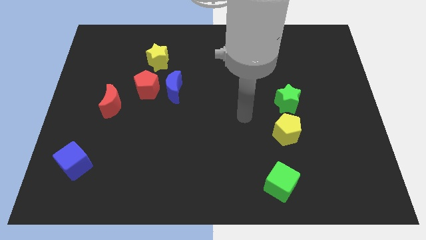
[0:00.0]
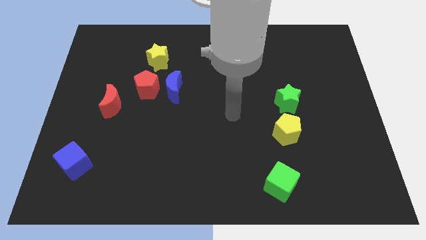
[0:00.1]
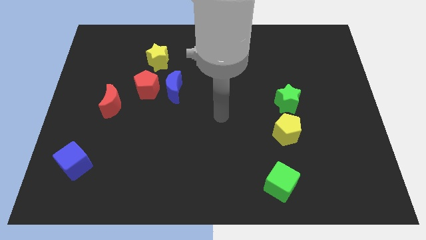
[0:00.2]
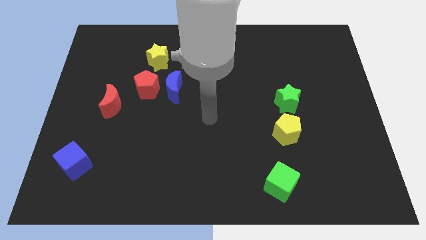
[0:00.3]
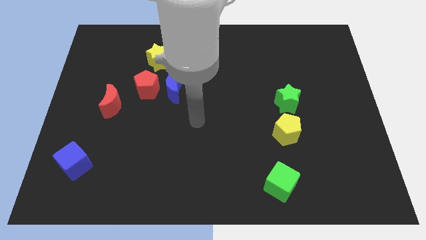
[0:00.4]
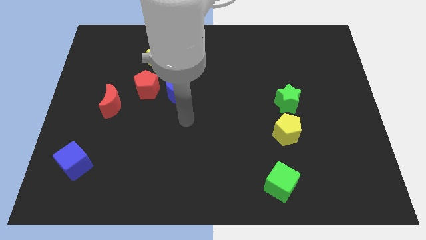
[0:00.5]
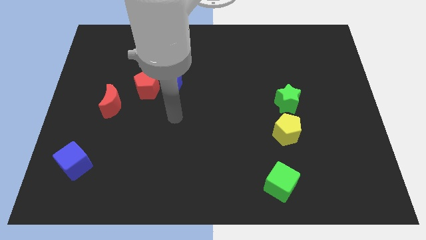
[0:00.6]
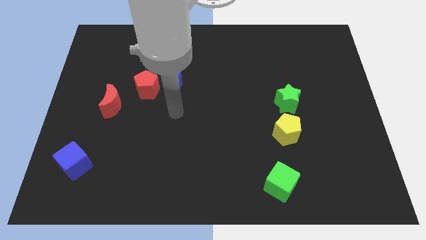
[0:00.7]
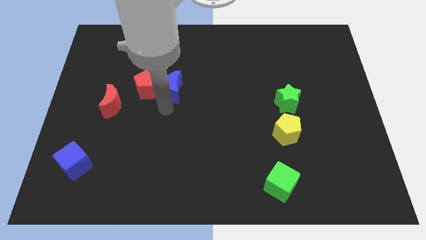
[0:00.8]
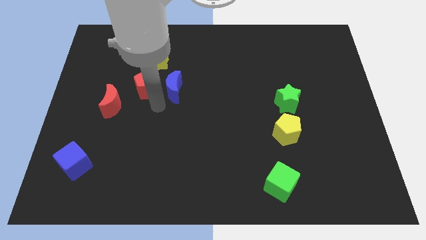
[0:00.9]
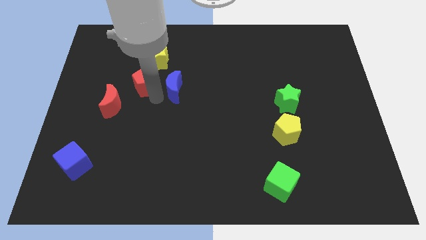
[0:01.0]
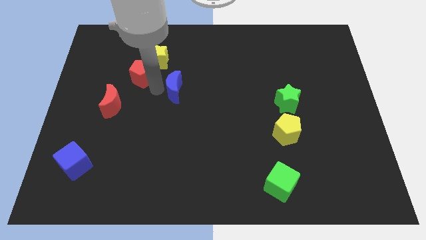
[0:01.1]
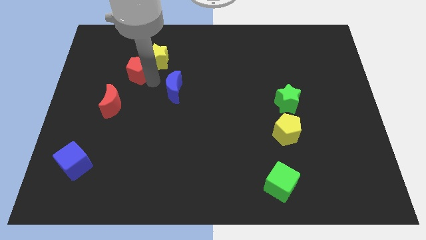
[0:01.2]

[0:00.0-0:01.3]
pull the blue moon apart from the red pentagon

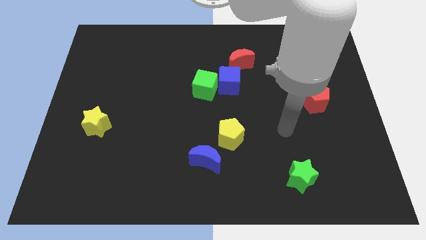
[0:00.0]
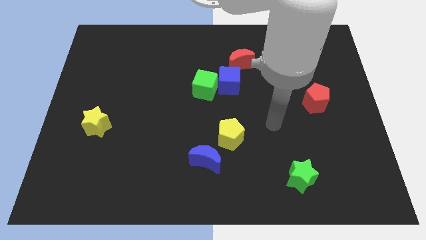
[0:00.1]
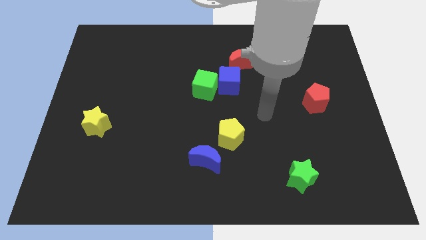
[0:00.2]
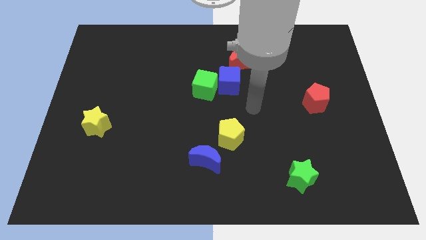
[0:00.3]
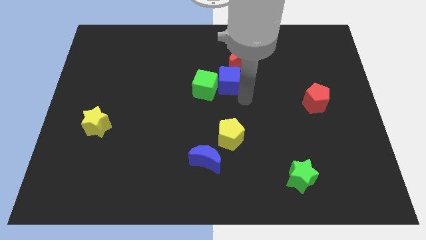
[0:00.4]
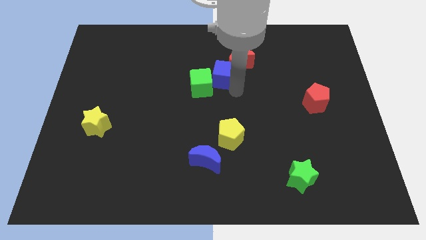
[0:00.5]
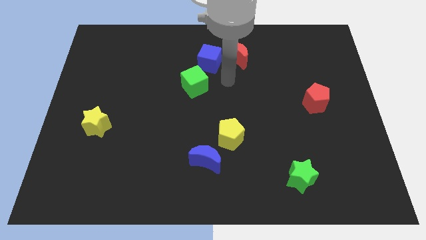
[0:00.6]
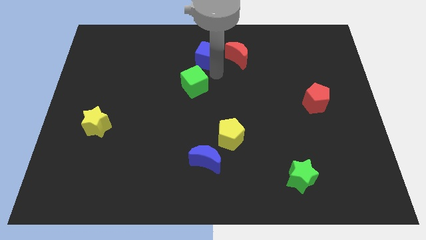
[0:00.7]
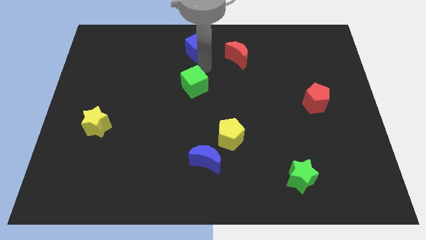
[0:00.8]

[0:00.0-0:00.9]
pull the green cube apart from the blue cube

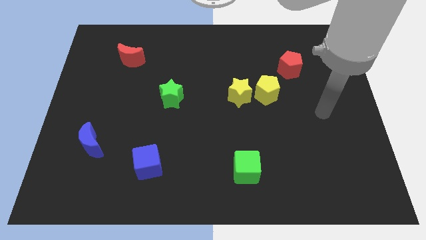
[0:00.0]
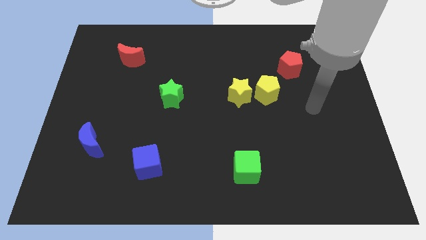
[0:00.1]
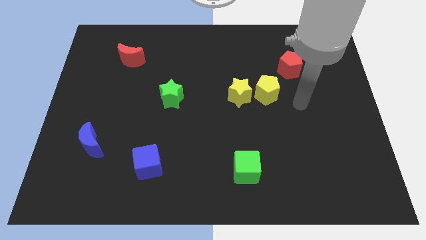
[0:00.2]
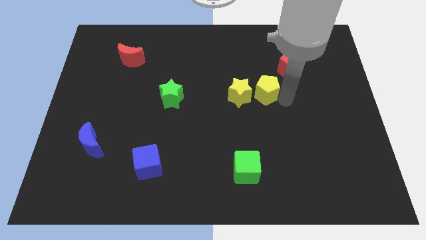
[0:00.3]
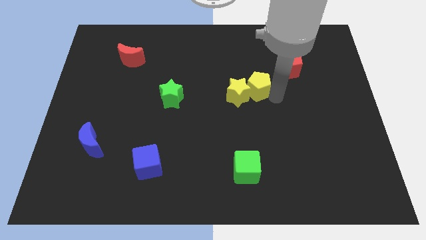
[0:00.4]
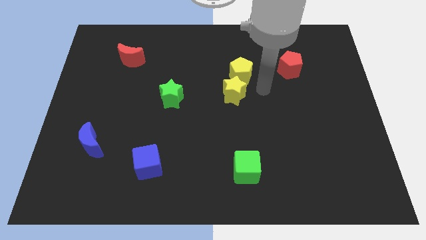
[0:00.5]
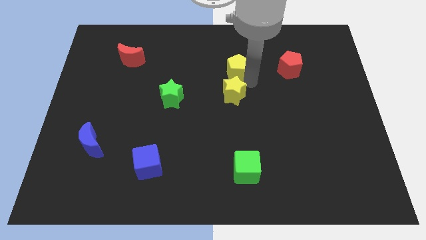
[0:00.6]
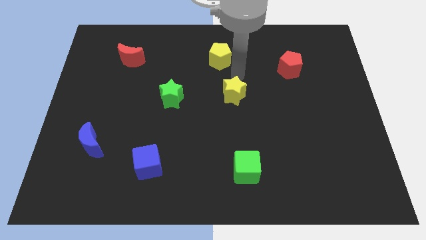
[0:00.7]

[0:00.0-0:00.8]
move the yellow star away from the yellow pentagon

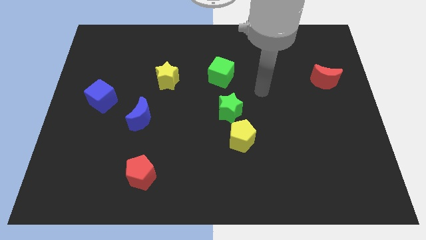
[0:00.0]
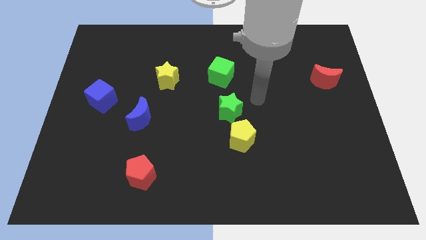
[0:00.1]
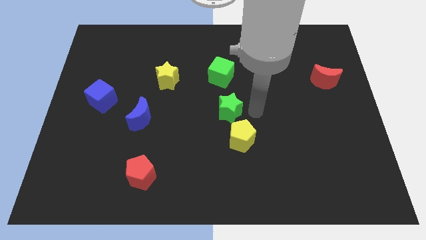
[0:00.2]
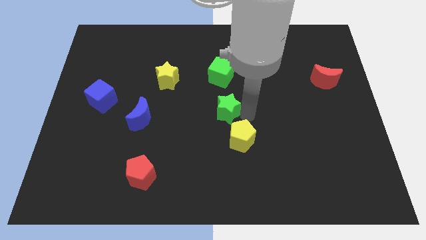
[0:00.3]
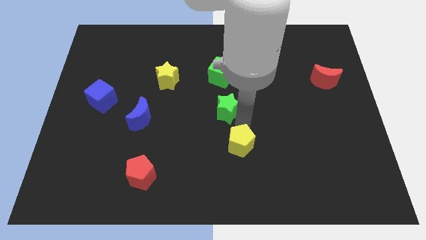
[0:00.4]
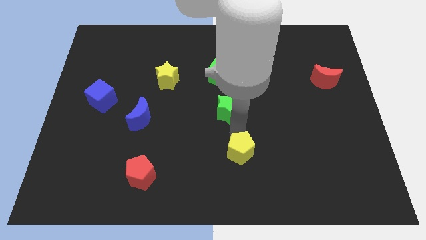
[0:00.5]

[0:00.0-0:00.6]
move the green star away from the yellow pentagon

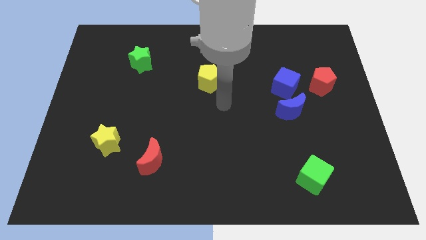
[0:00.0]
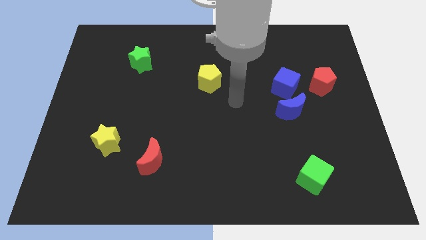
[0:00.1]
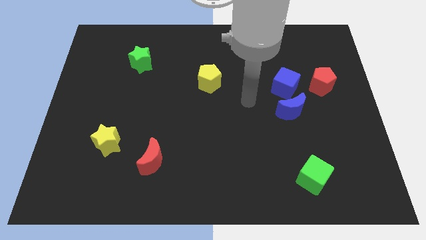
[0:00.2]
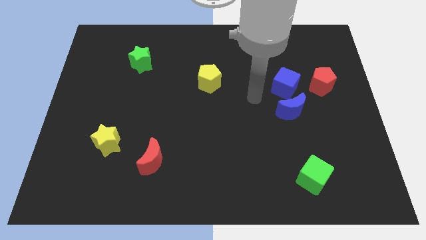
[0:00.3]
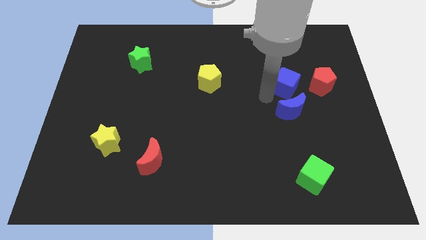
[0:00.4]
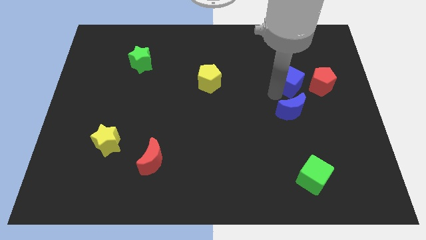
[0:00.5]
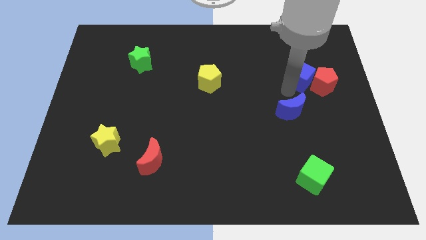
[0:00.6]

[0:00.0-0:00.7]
separate the blue moon from the blue cube

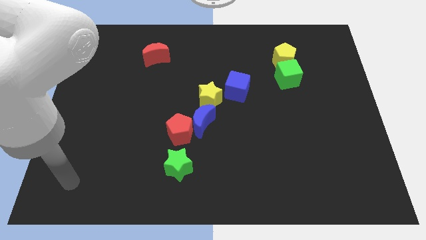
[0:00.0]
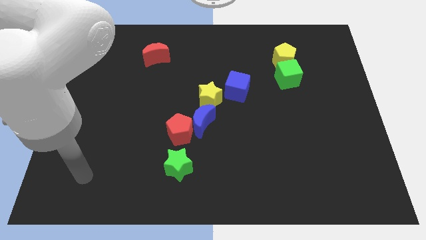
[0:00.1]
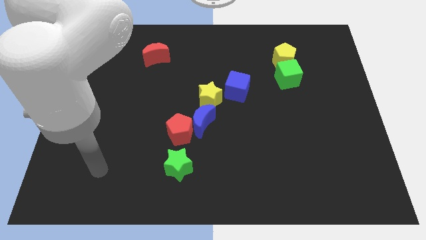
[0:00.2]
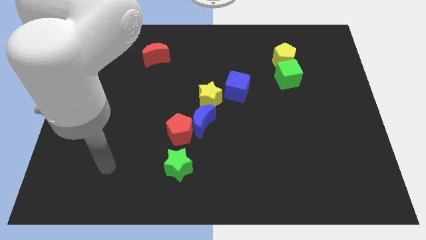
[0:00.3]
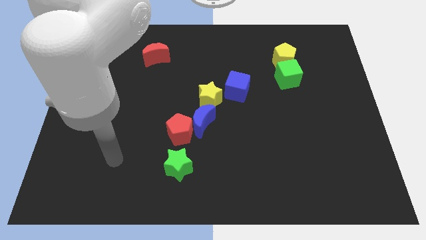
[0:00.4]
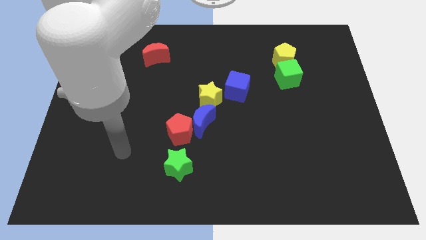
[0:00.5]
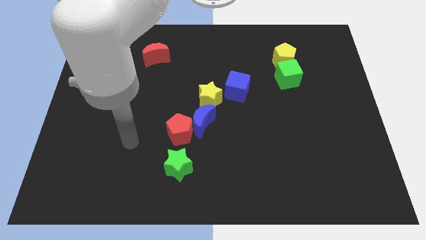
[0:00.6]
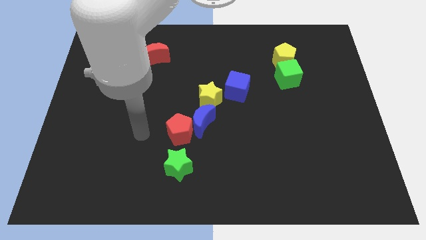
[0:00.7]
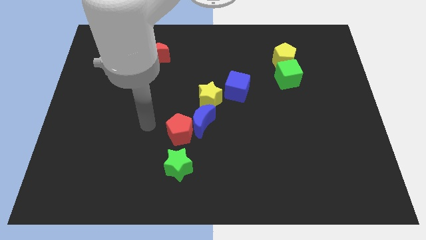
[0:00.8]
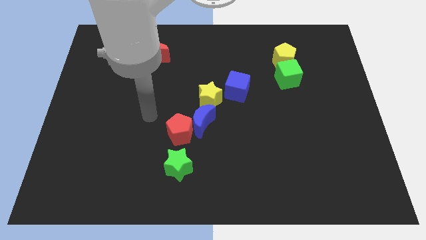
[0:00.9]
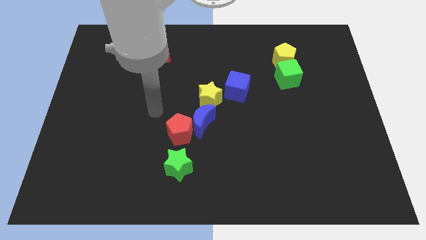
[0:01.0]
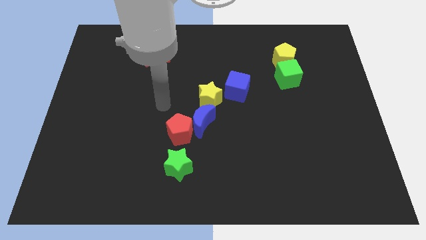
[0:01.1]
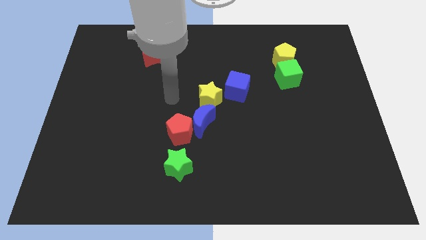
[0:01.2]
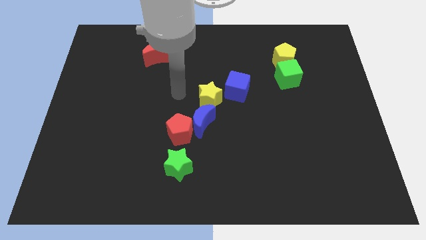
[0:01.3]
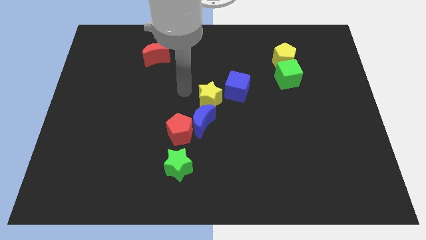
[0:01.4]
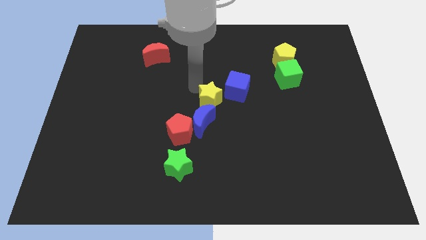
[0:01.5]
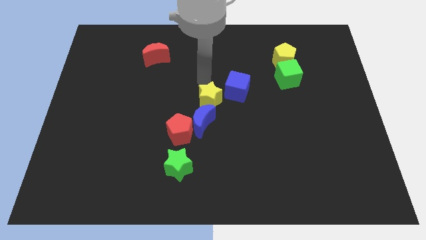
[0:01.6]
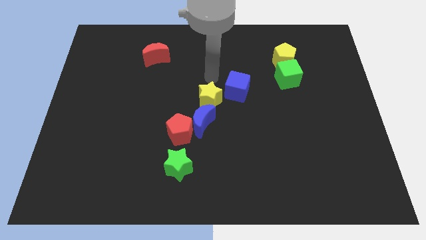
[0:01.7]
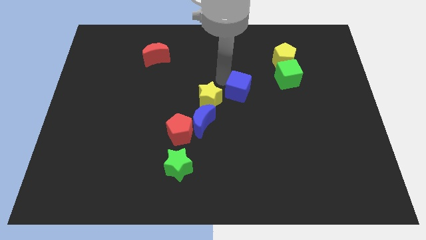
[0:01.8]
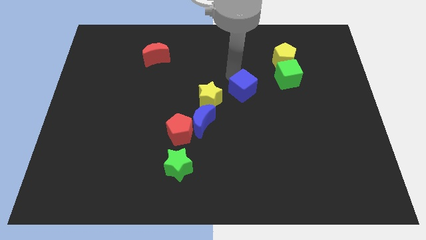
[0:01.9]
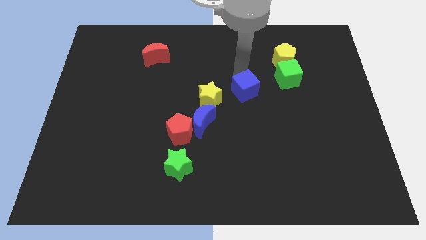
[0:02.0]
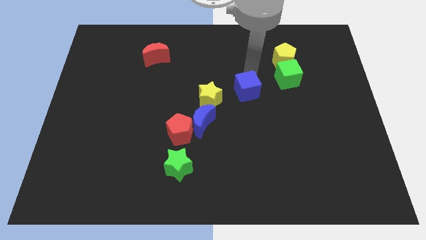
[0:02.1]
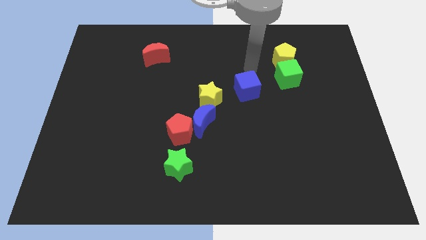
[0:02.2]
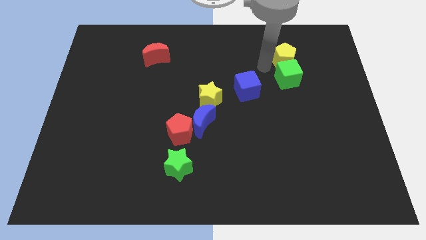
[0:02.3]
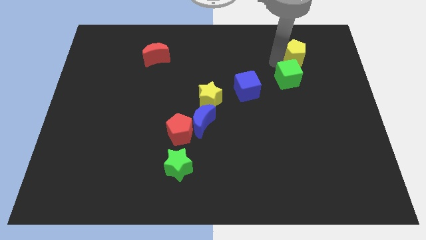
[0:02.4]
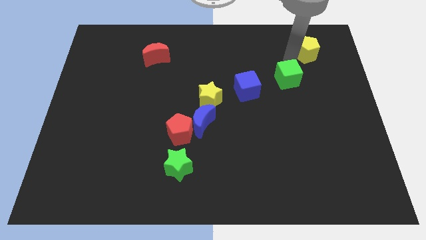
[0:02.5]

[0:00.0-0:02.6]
move the green cube away from the yellow pentagon

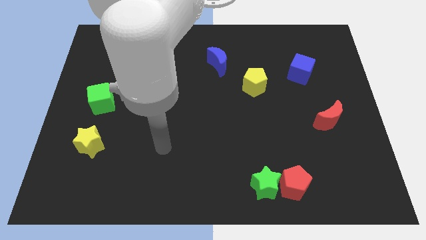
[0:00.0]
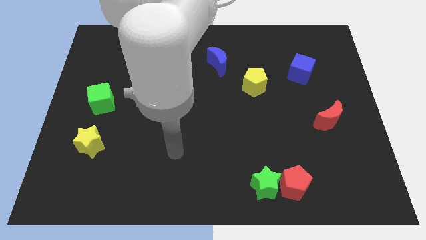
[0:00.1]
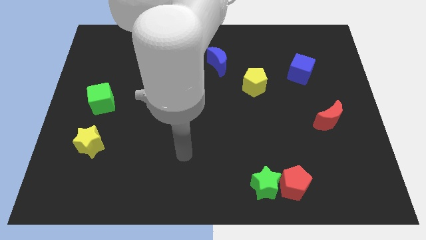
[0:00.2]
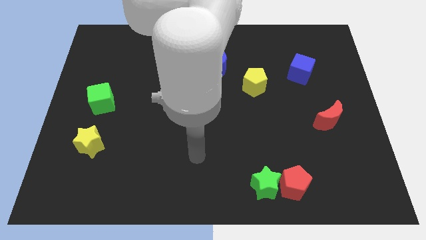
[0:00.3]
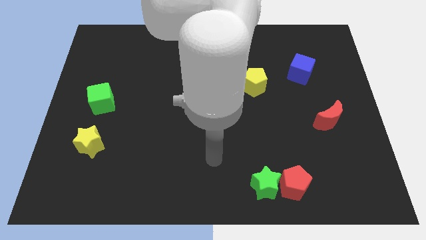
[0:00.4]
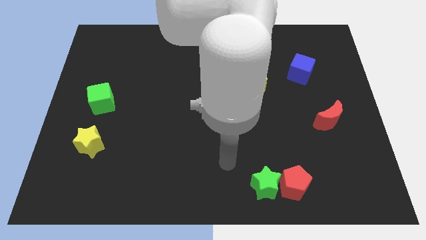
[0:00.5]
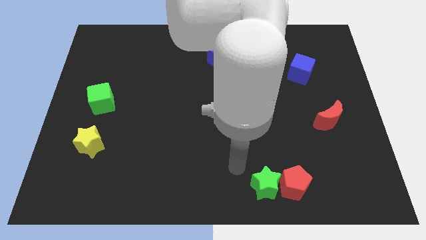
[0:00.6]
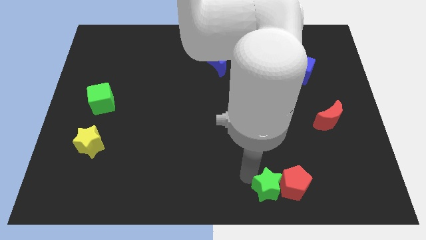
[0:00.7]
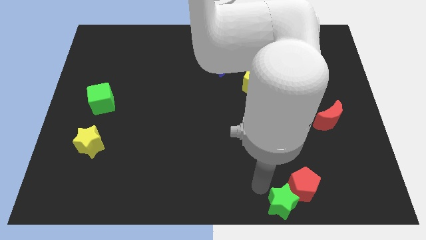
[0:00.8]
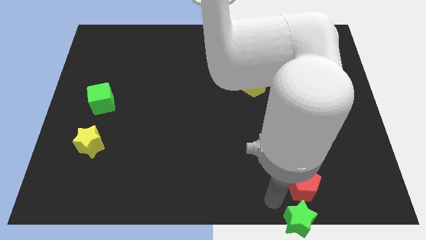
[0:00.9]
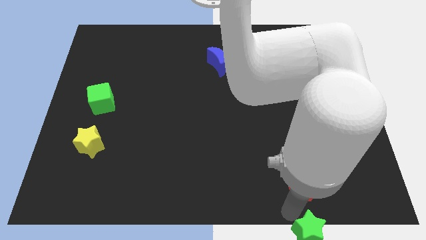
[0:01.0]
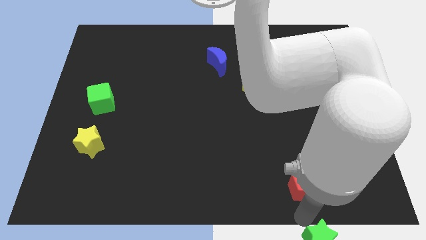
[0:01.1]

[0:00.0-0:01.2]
pull the red pentagon apart from the green star

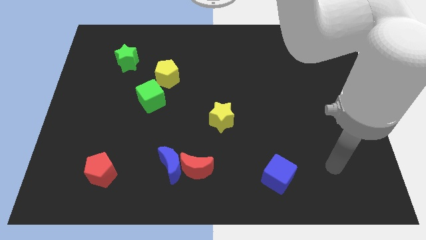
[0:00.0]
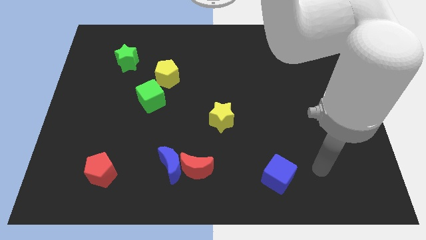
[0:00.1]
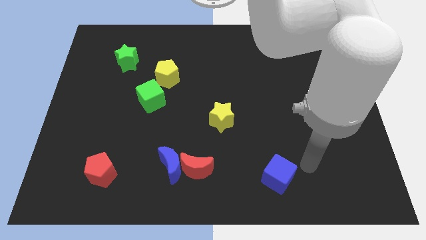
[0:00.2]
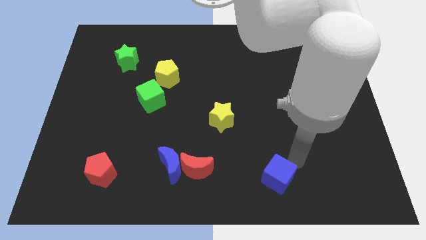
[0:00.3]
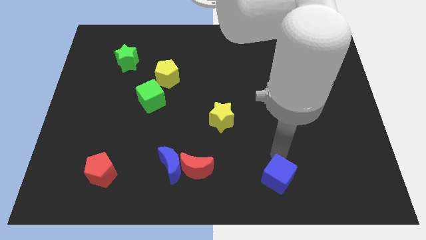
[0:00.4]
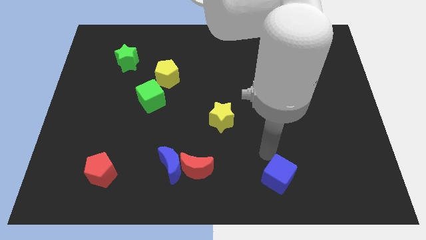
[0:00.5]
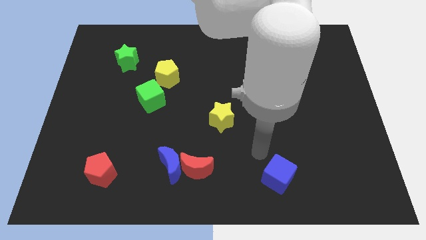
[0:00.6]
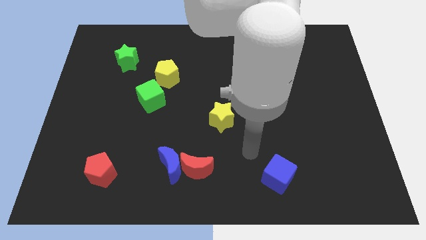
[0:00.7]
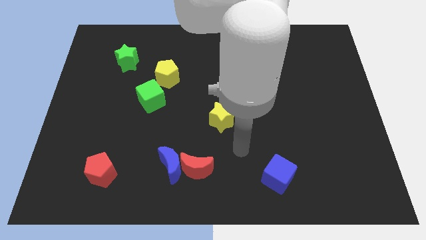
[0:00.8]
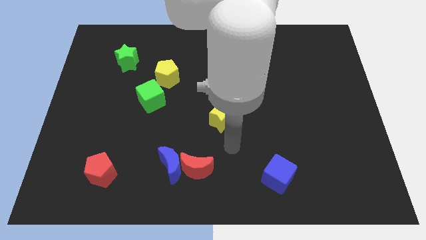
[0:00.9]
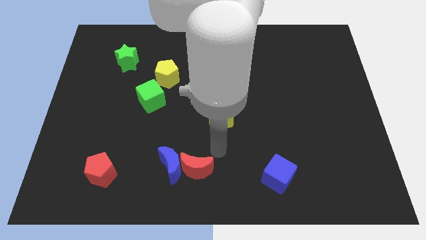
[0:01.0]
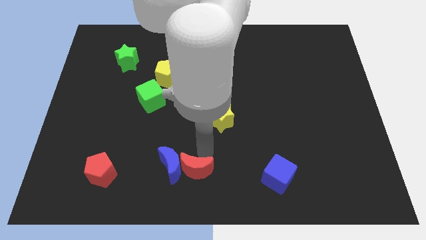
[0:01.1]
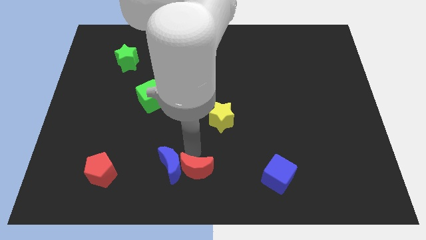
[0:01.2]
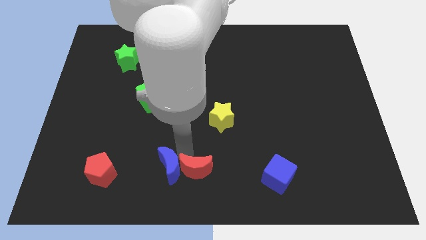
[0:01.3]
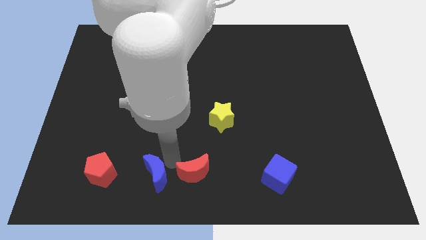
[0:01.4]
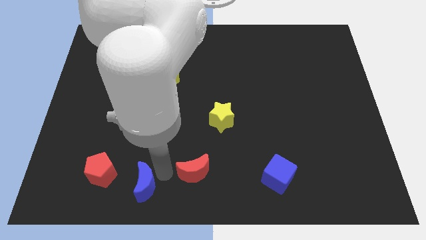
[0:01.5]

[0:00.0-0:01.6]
pull the red moon apart from the blue moon
